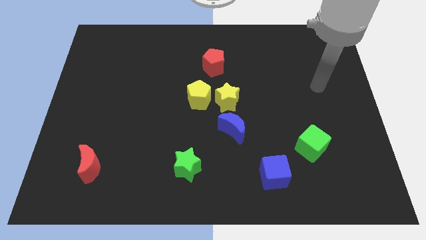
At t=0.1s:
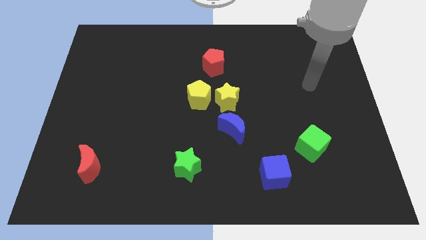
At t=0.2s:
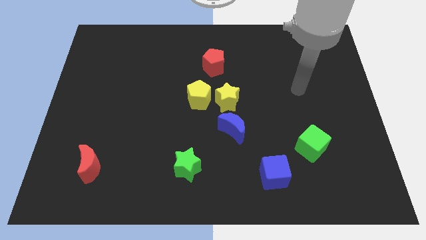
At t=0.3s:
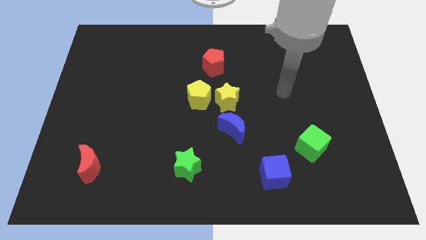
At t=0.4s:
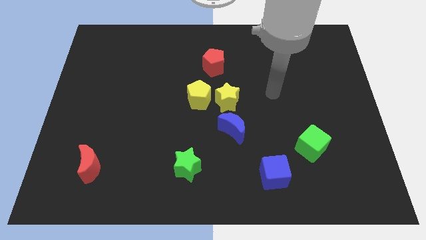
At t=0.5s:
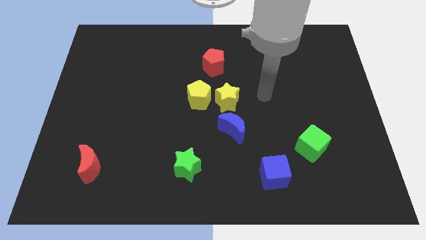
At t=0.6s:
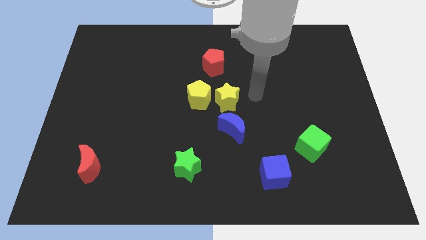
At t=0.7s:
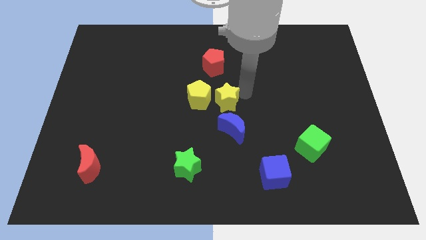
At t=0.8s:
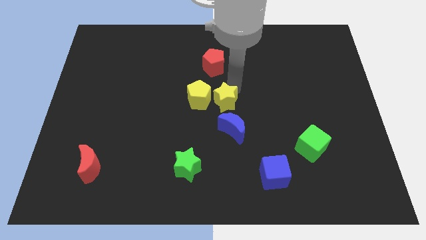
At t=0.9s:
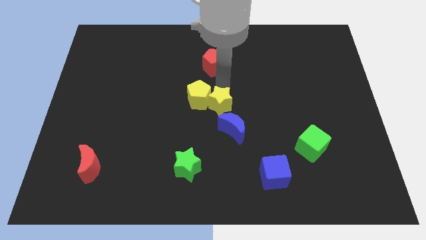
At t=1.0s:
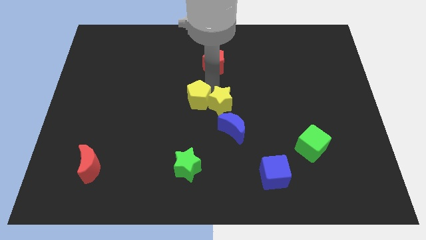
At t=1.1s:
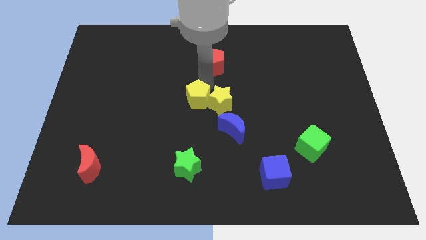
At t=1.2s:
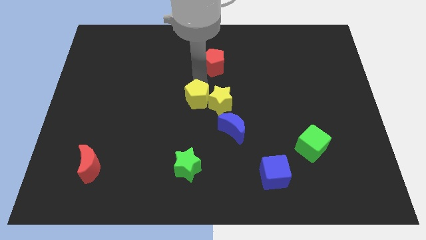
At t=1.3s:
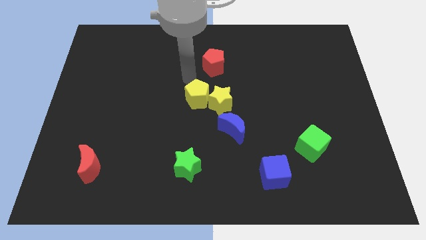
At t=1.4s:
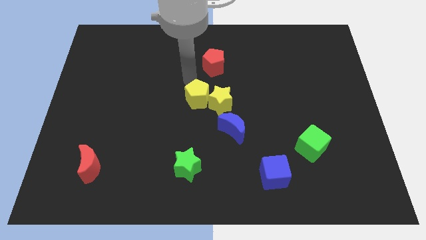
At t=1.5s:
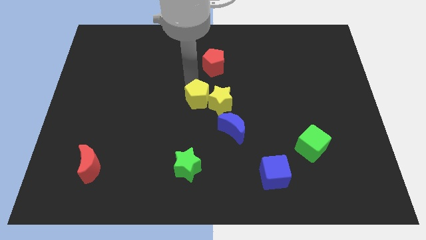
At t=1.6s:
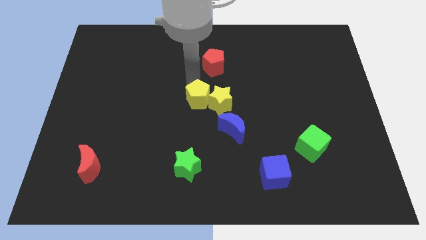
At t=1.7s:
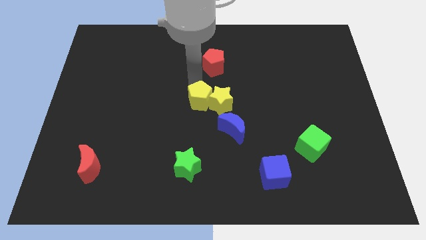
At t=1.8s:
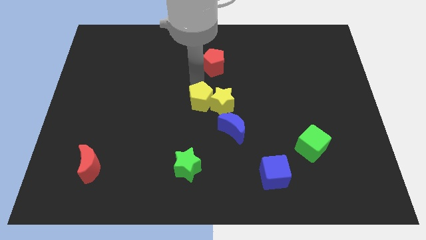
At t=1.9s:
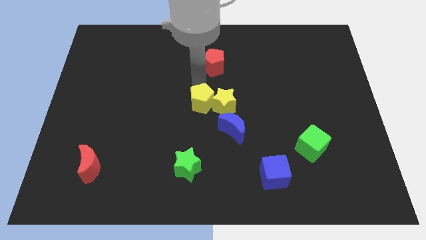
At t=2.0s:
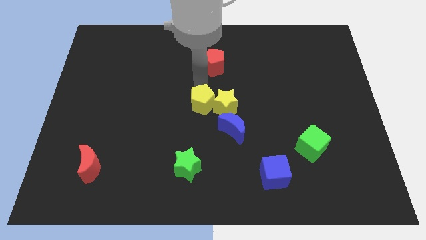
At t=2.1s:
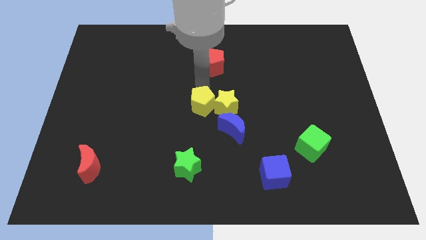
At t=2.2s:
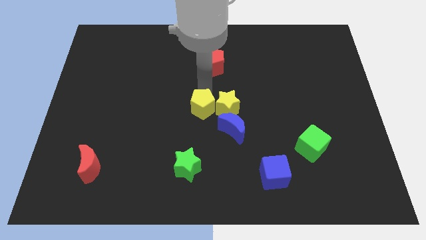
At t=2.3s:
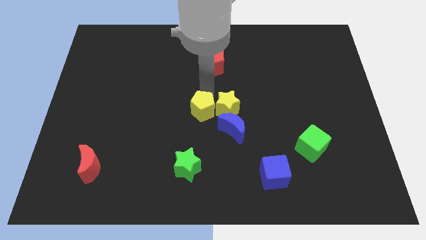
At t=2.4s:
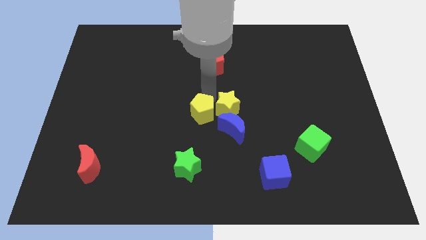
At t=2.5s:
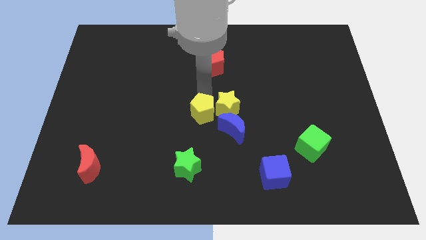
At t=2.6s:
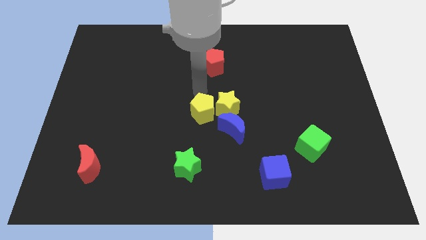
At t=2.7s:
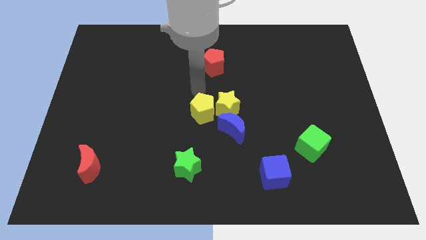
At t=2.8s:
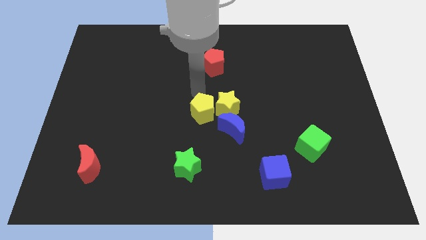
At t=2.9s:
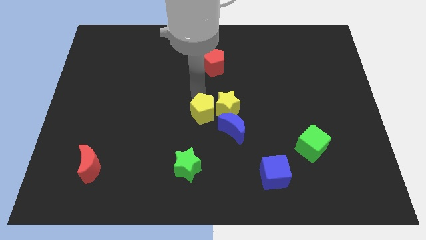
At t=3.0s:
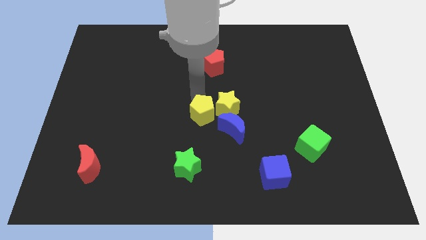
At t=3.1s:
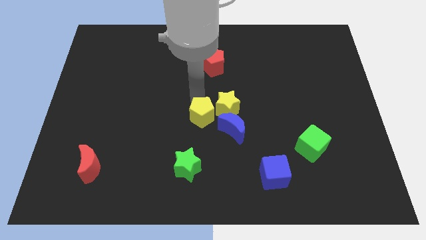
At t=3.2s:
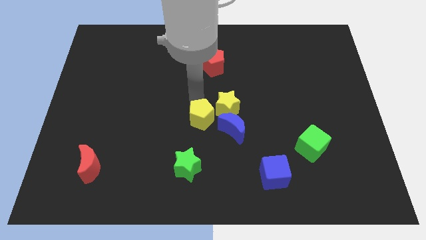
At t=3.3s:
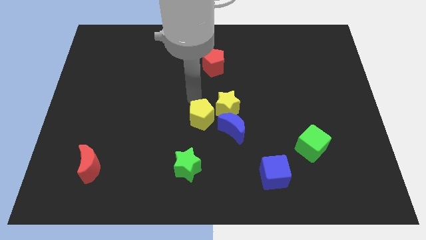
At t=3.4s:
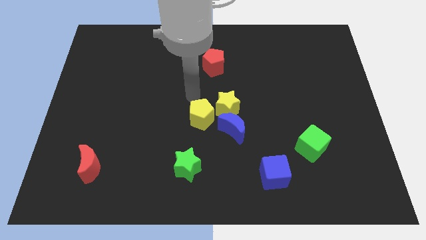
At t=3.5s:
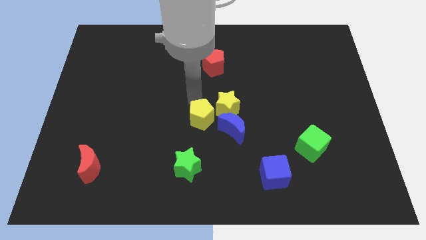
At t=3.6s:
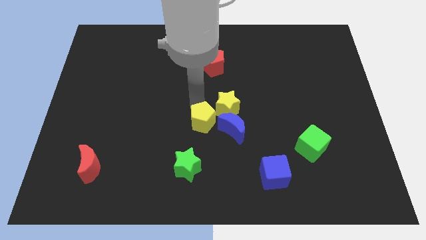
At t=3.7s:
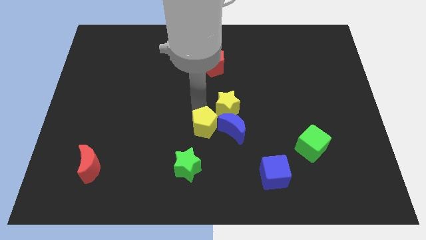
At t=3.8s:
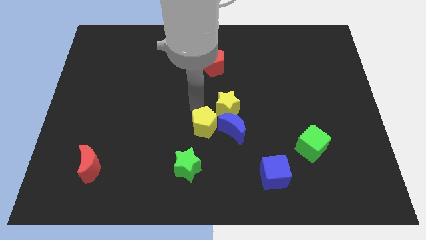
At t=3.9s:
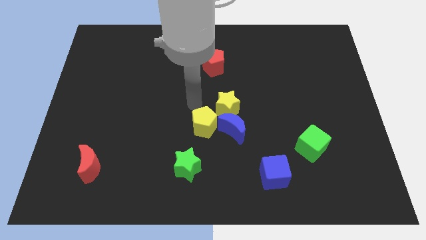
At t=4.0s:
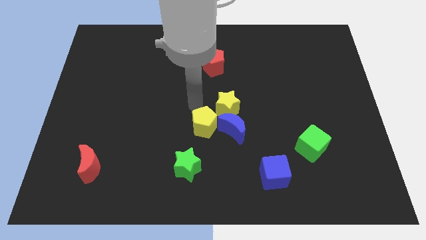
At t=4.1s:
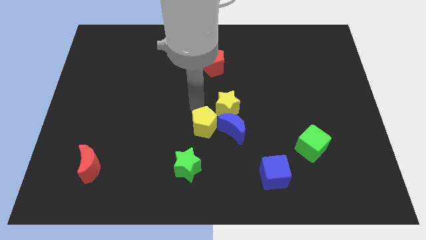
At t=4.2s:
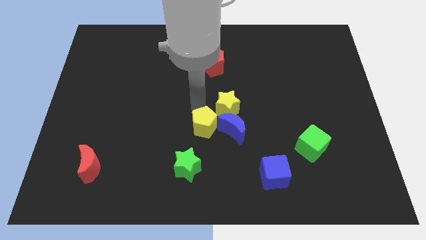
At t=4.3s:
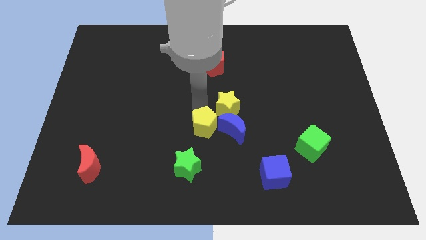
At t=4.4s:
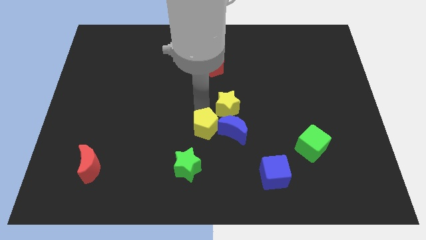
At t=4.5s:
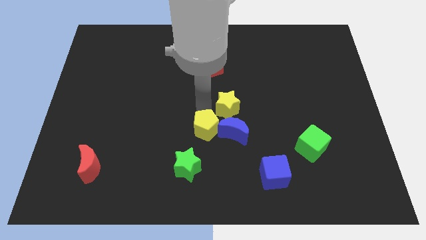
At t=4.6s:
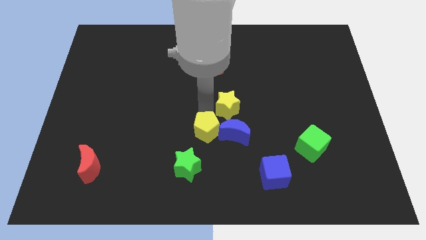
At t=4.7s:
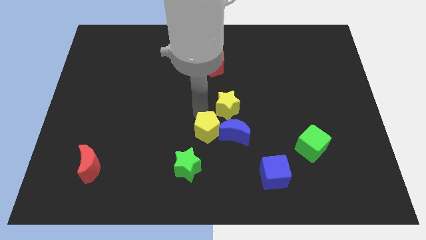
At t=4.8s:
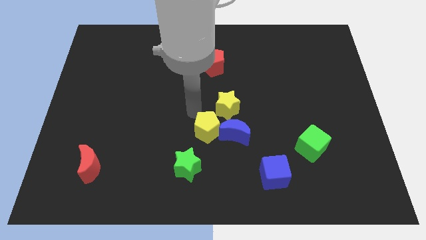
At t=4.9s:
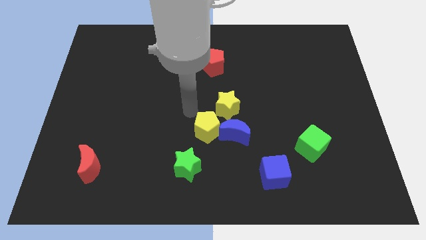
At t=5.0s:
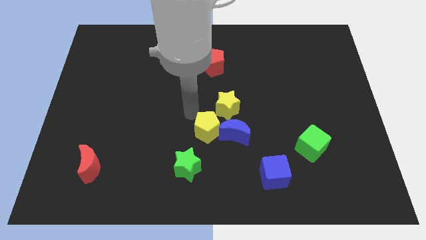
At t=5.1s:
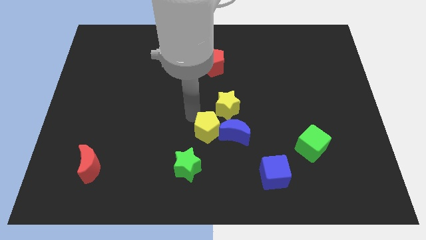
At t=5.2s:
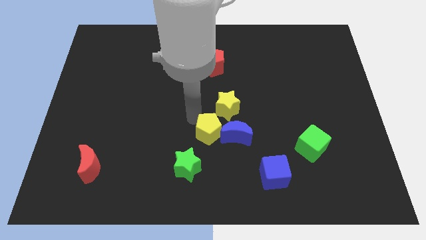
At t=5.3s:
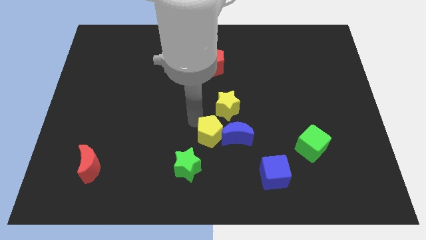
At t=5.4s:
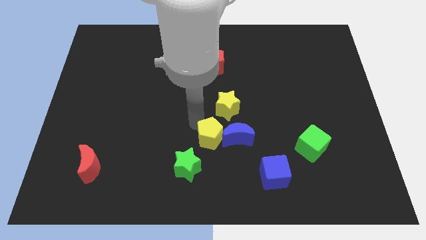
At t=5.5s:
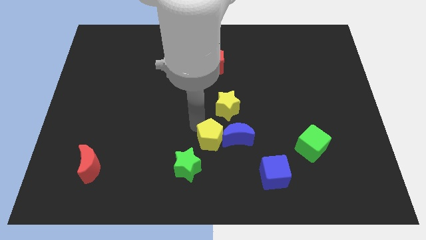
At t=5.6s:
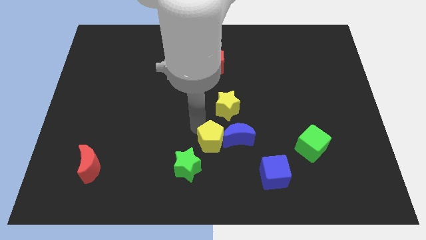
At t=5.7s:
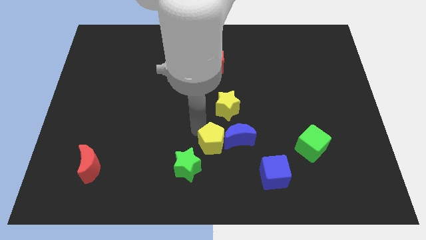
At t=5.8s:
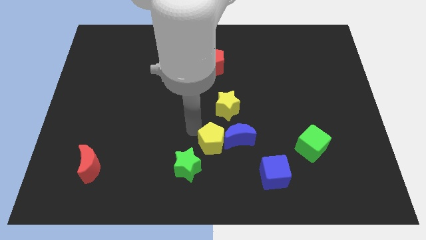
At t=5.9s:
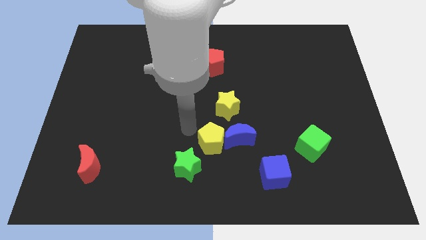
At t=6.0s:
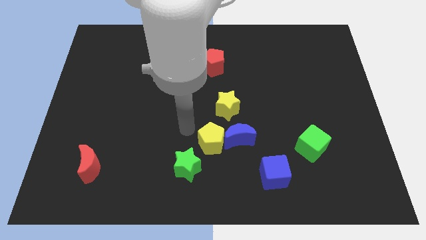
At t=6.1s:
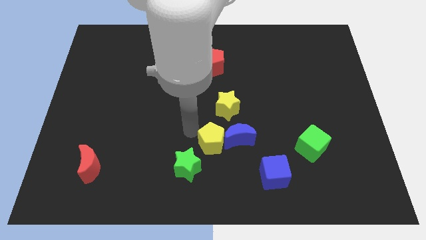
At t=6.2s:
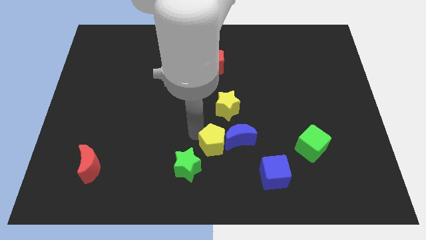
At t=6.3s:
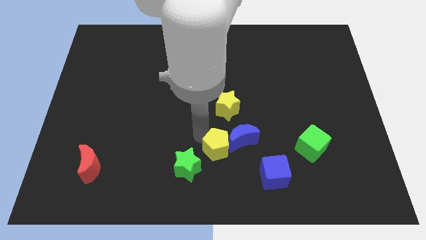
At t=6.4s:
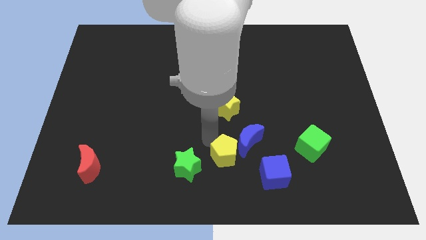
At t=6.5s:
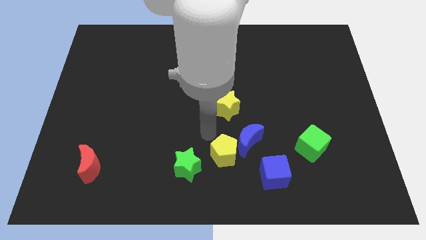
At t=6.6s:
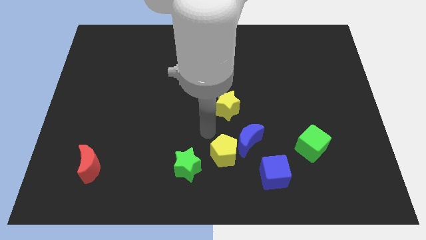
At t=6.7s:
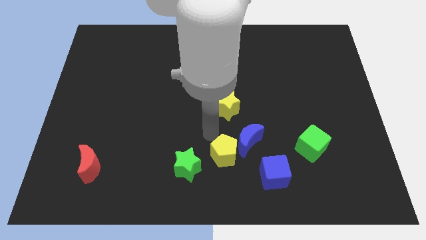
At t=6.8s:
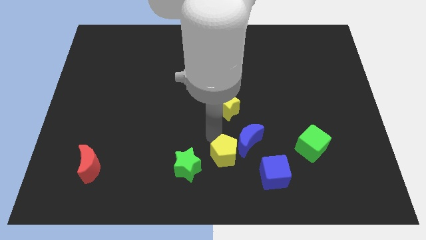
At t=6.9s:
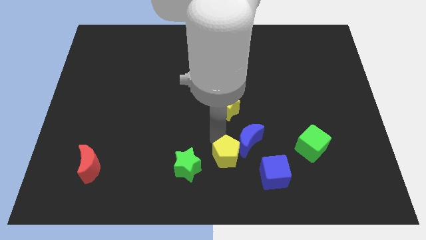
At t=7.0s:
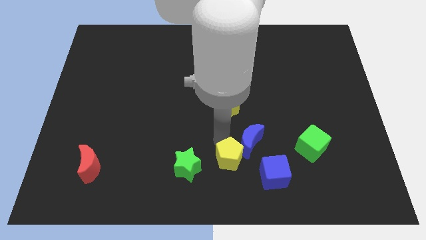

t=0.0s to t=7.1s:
push the yellow pentagon below the blue moon
